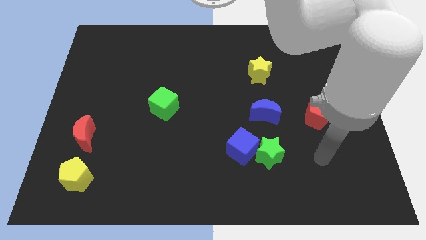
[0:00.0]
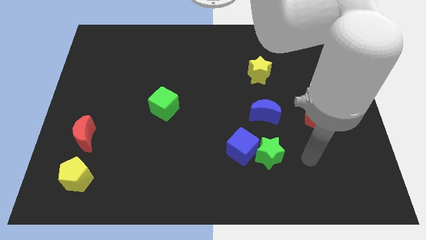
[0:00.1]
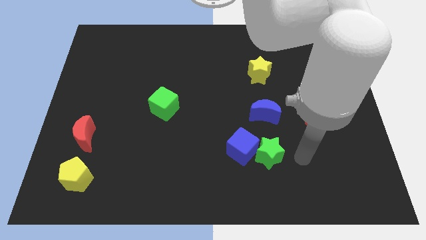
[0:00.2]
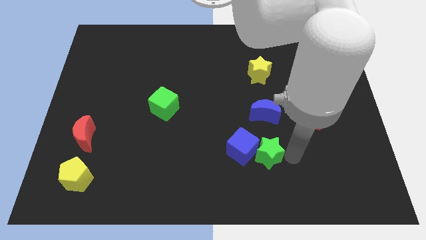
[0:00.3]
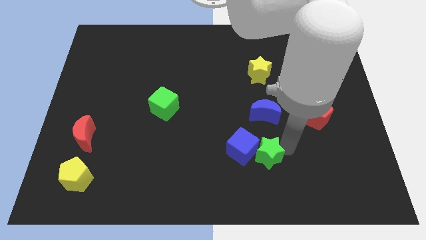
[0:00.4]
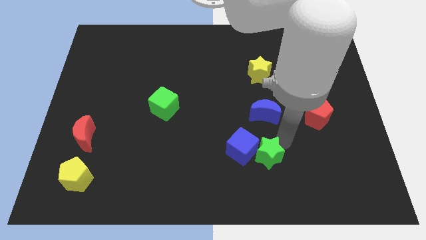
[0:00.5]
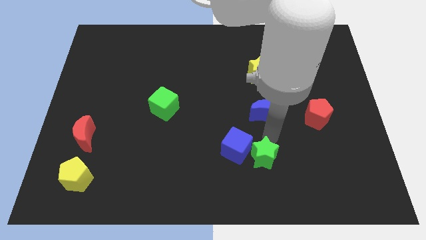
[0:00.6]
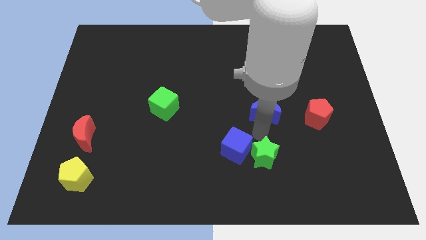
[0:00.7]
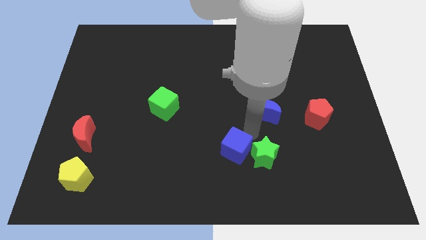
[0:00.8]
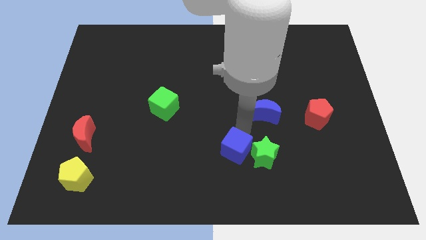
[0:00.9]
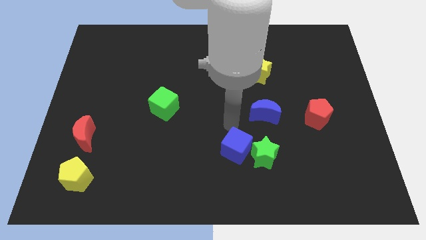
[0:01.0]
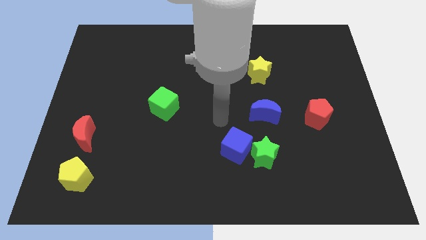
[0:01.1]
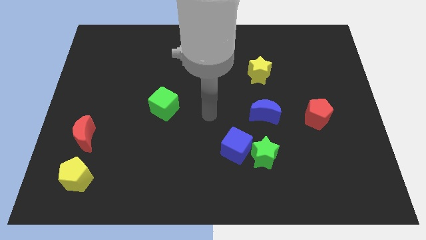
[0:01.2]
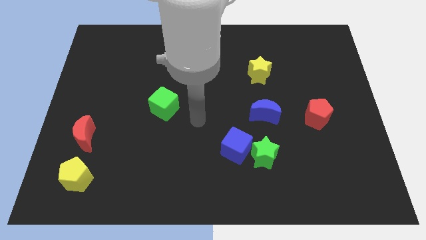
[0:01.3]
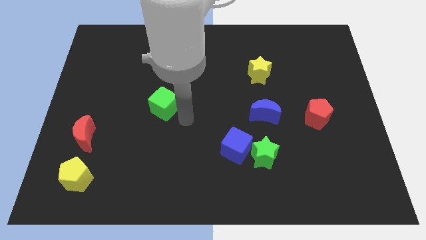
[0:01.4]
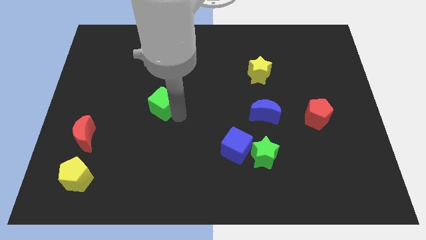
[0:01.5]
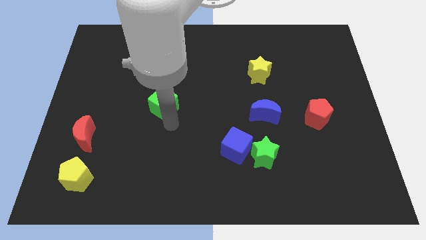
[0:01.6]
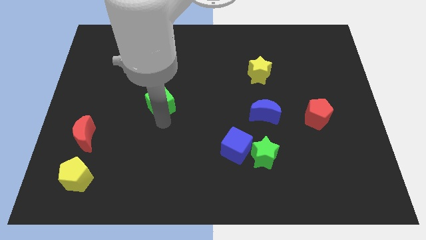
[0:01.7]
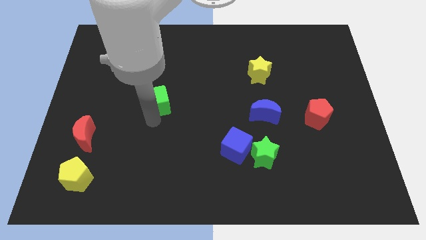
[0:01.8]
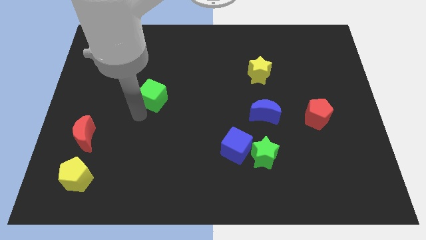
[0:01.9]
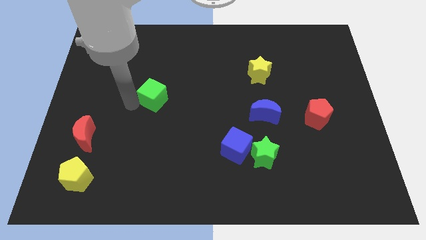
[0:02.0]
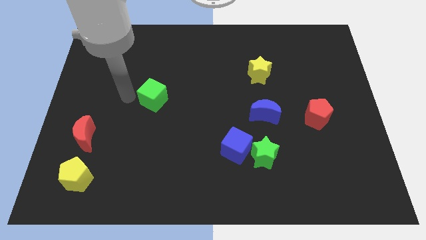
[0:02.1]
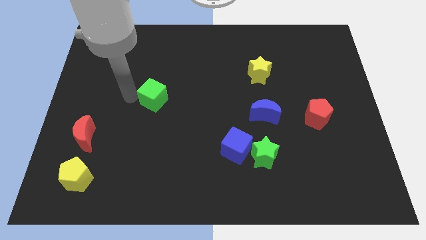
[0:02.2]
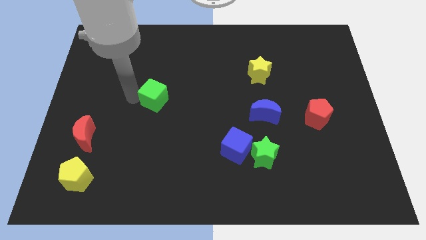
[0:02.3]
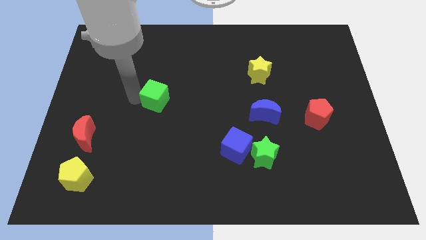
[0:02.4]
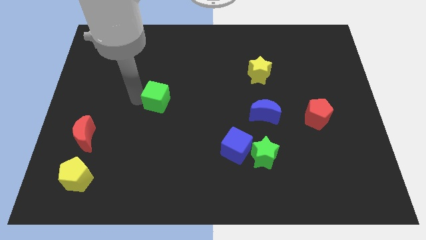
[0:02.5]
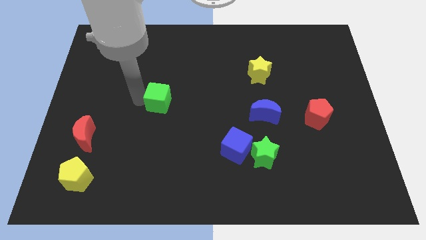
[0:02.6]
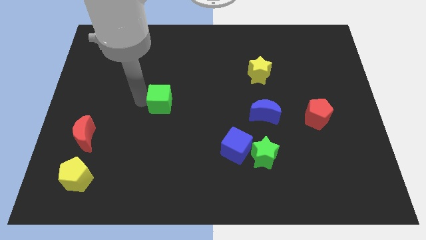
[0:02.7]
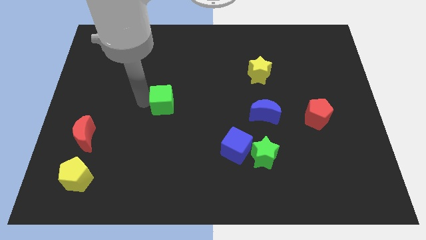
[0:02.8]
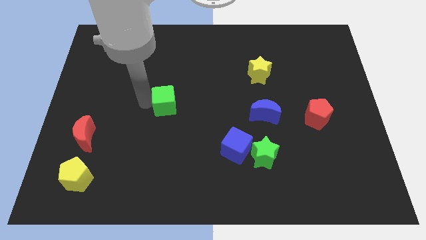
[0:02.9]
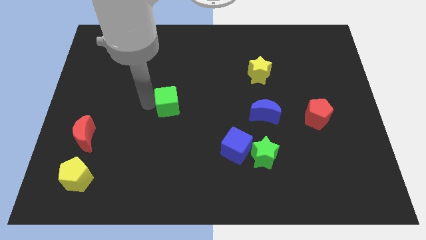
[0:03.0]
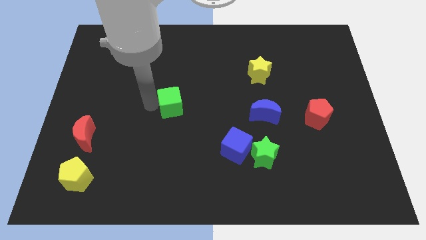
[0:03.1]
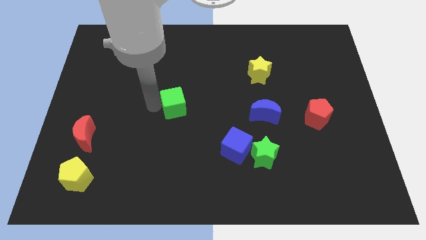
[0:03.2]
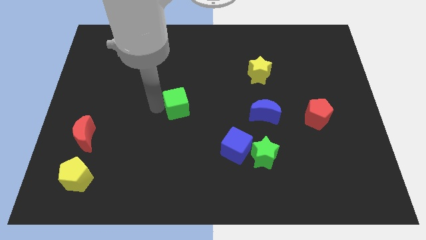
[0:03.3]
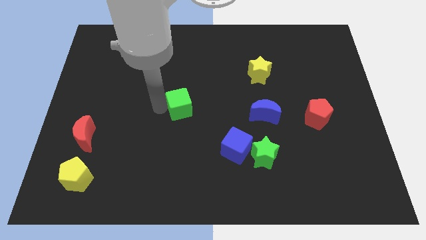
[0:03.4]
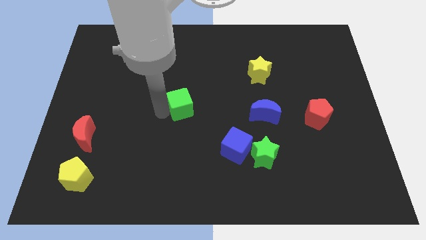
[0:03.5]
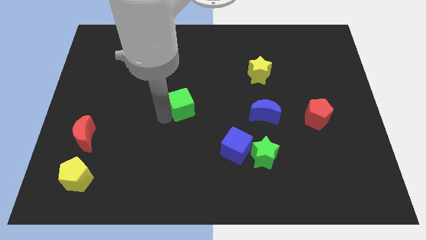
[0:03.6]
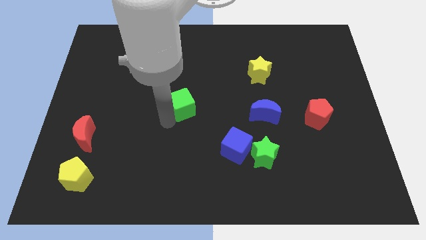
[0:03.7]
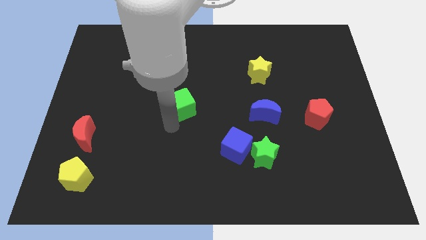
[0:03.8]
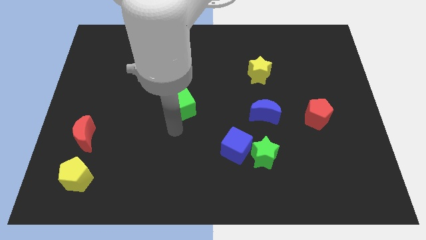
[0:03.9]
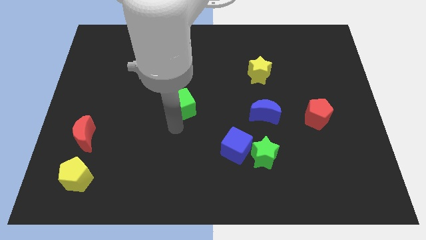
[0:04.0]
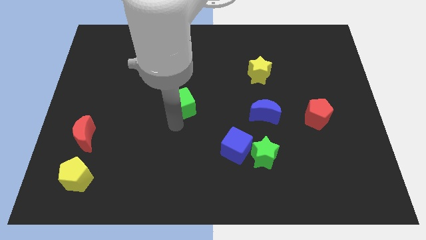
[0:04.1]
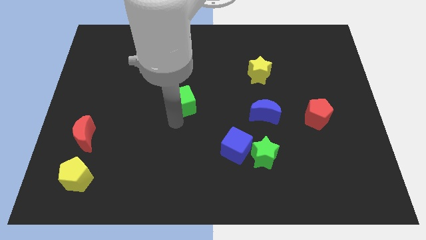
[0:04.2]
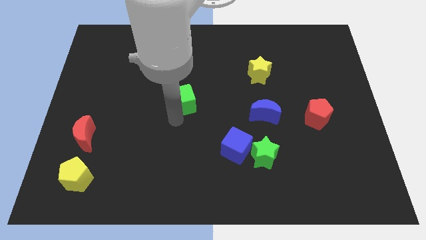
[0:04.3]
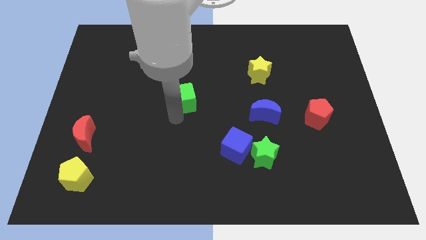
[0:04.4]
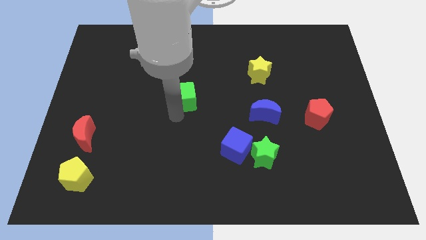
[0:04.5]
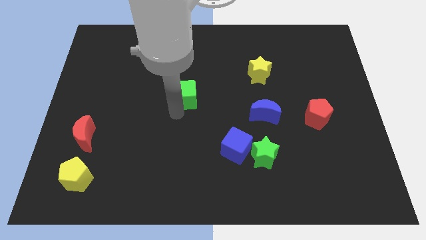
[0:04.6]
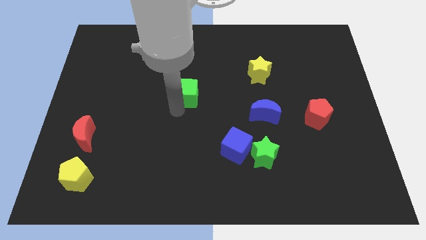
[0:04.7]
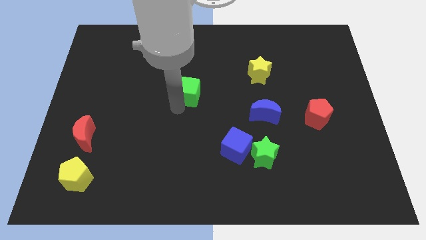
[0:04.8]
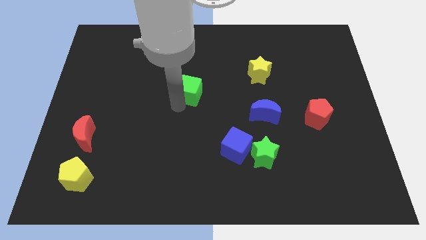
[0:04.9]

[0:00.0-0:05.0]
push the green cube a bit up and to the right

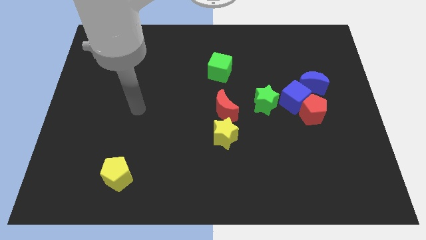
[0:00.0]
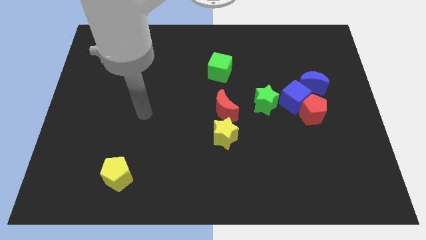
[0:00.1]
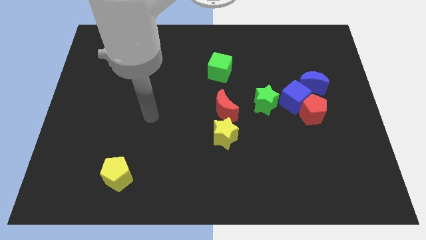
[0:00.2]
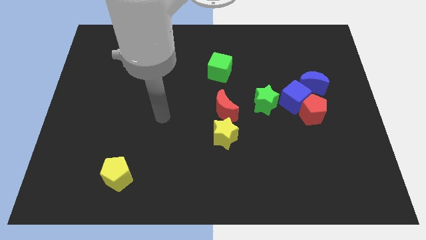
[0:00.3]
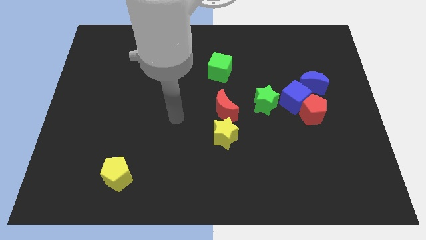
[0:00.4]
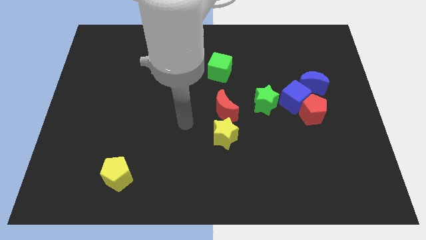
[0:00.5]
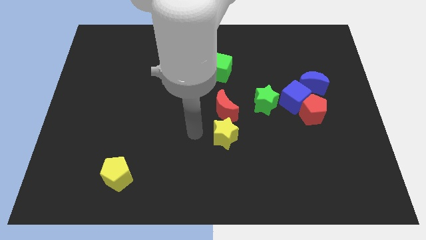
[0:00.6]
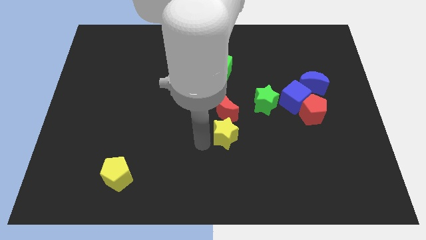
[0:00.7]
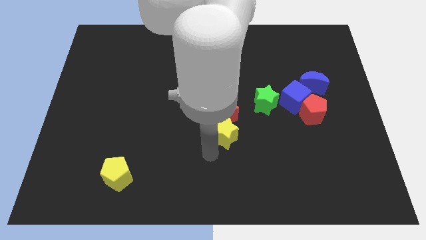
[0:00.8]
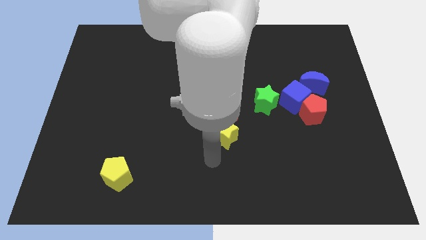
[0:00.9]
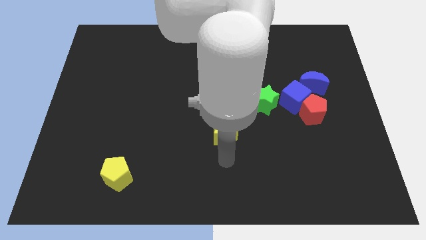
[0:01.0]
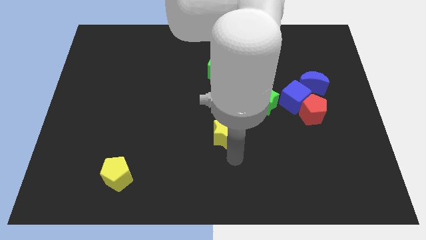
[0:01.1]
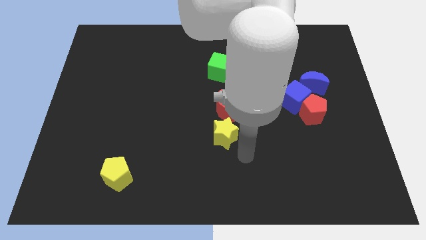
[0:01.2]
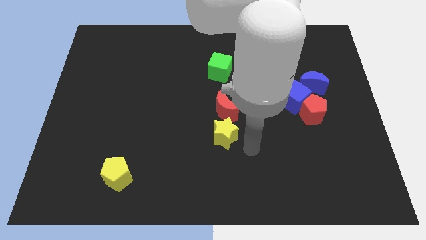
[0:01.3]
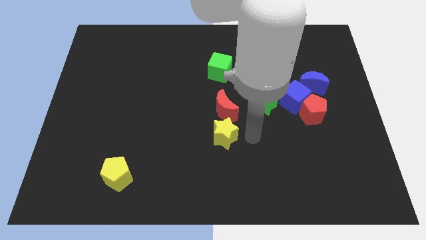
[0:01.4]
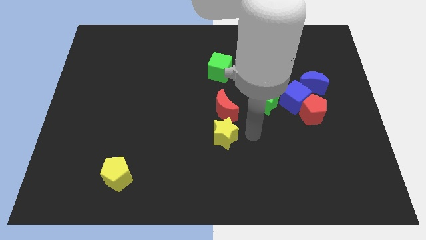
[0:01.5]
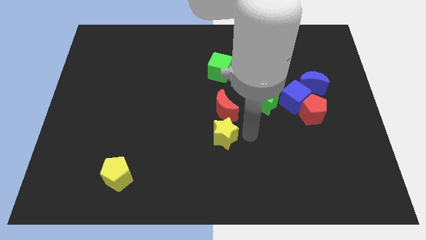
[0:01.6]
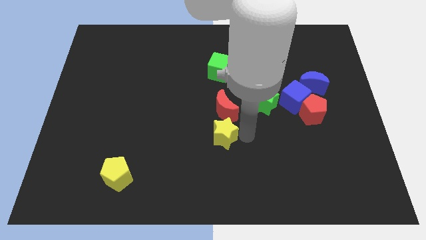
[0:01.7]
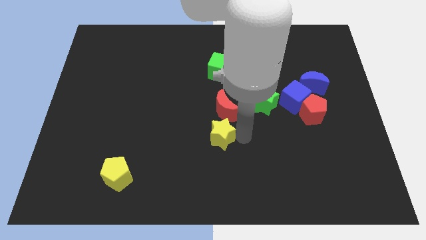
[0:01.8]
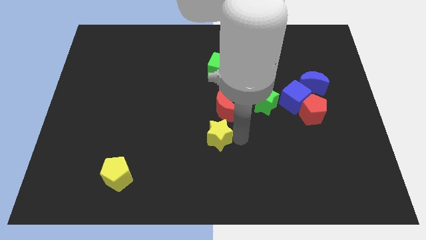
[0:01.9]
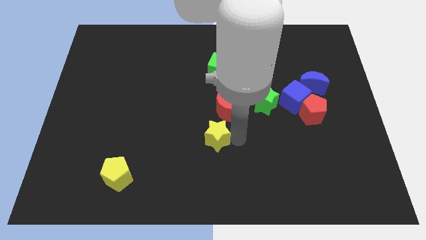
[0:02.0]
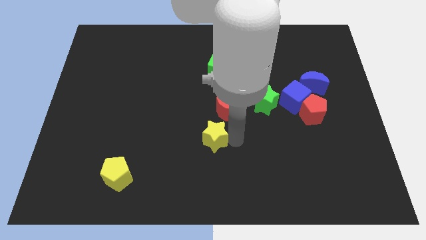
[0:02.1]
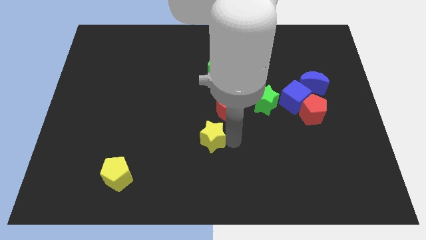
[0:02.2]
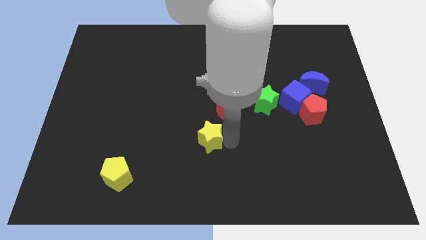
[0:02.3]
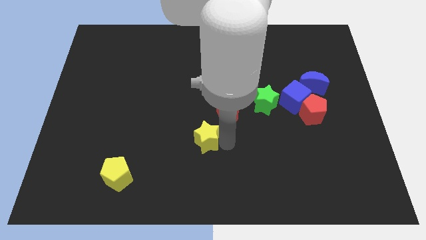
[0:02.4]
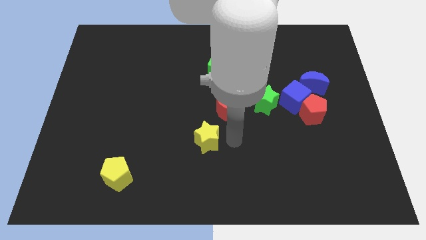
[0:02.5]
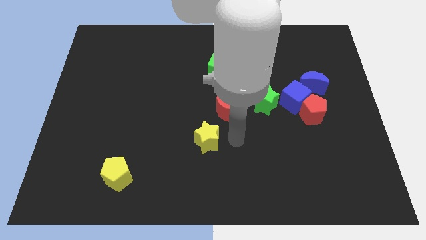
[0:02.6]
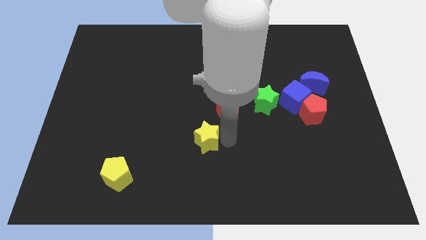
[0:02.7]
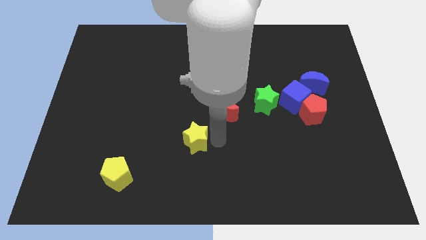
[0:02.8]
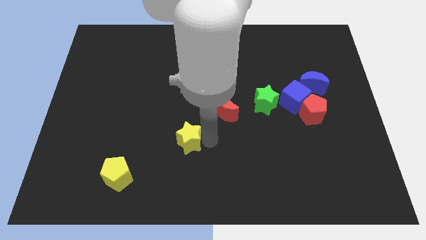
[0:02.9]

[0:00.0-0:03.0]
move the yellow star somewhat left

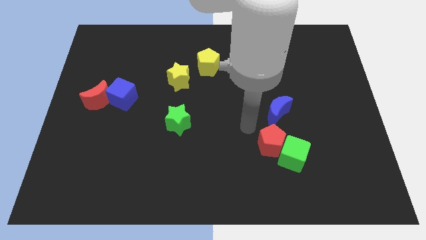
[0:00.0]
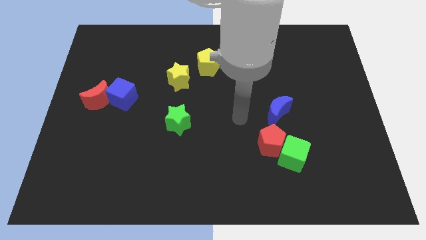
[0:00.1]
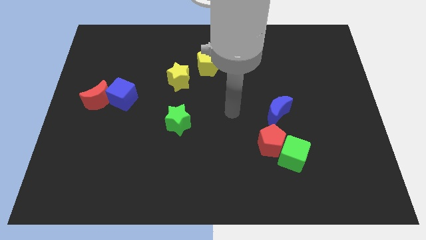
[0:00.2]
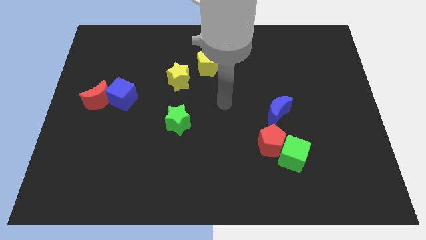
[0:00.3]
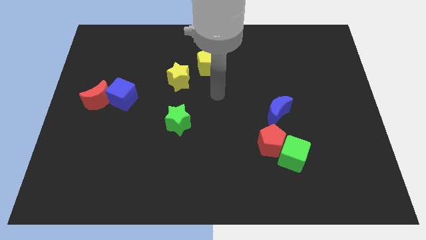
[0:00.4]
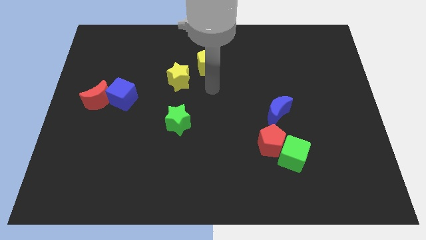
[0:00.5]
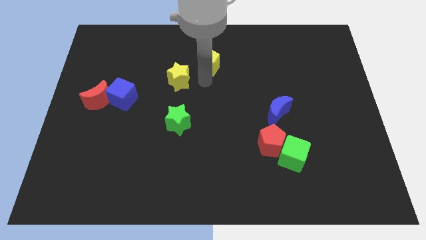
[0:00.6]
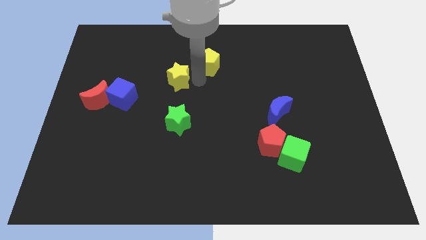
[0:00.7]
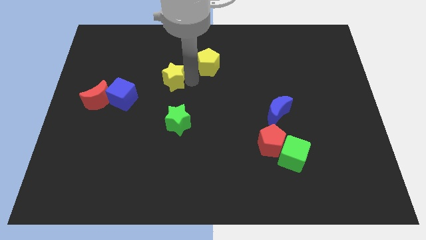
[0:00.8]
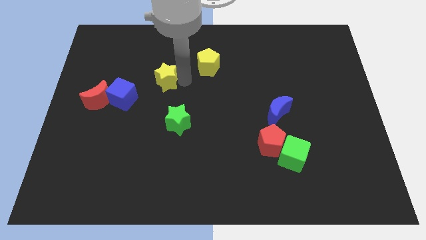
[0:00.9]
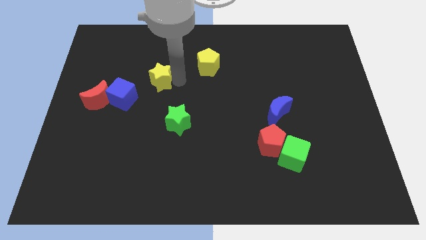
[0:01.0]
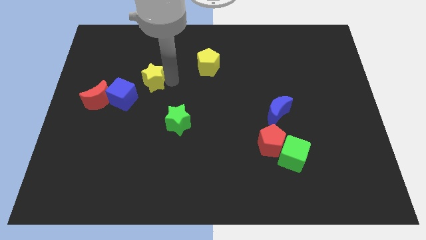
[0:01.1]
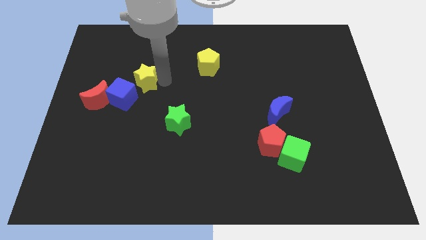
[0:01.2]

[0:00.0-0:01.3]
push the yellow star left slightly
